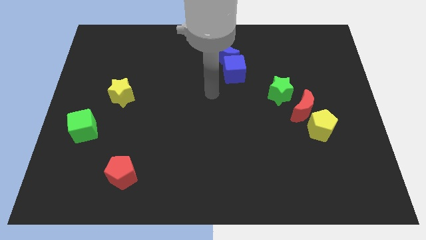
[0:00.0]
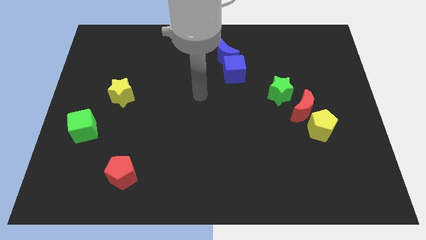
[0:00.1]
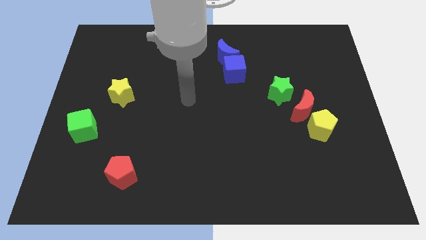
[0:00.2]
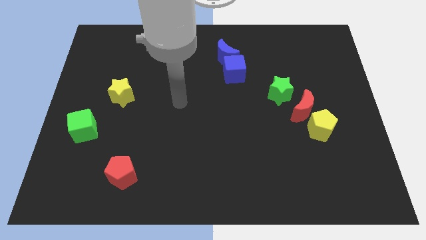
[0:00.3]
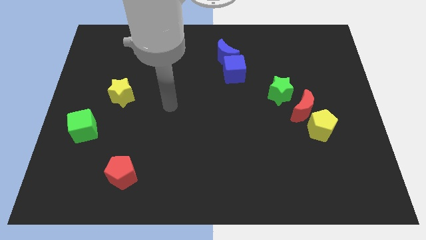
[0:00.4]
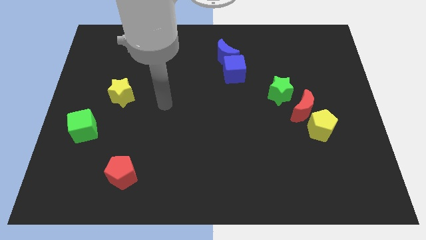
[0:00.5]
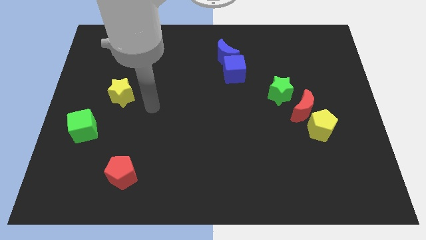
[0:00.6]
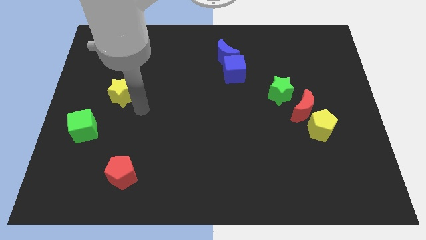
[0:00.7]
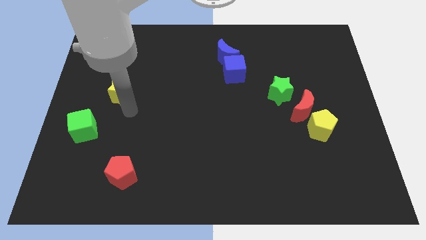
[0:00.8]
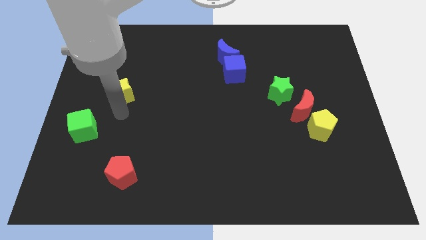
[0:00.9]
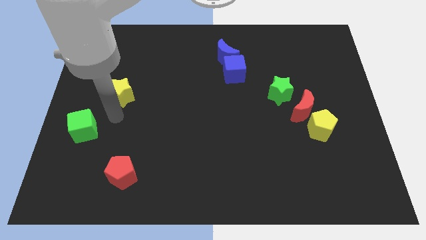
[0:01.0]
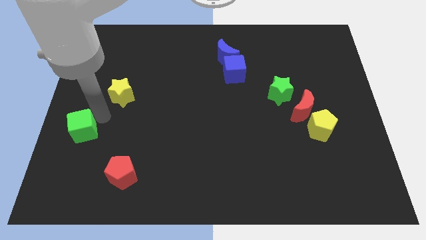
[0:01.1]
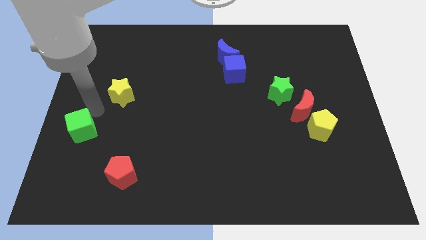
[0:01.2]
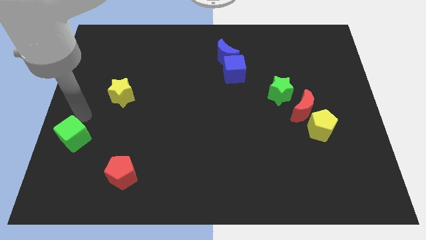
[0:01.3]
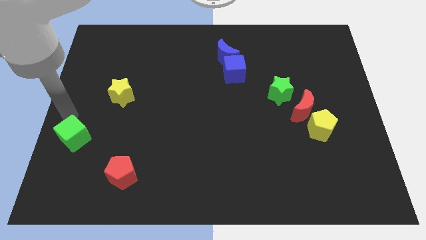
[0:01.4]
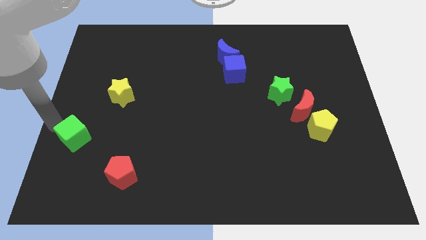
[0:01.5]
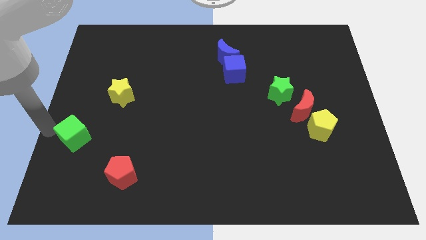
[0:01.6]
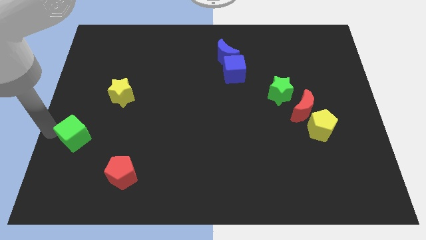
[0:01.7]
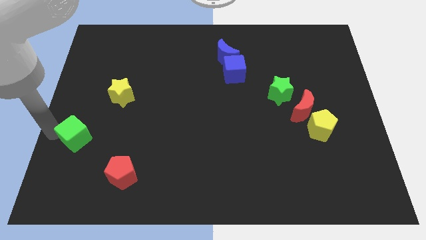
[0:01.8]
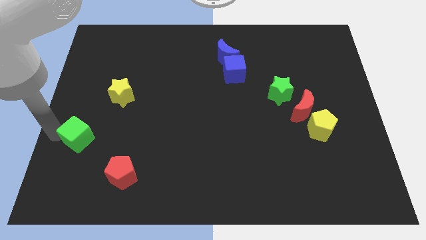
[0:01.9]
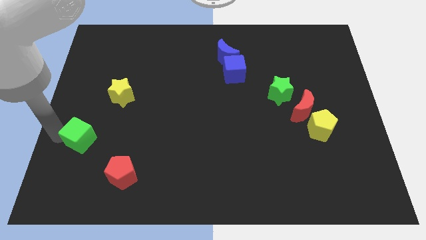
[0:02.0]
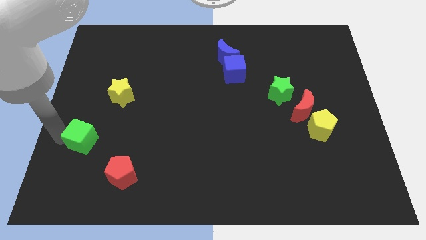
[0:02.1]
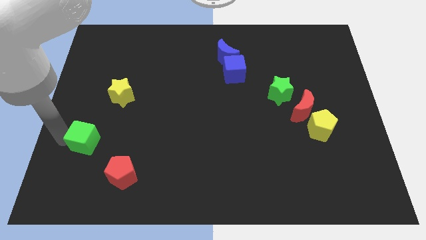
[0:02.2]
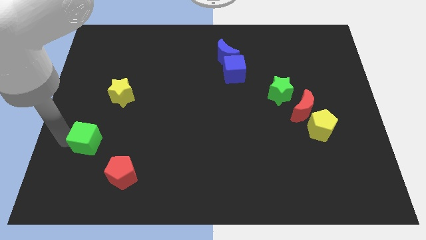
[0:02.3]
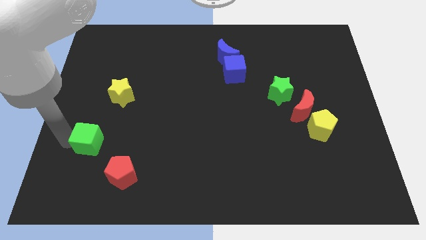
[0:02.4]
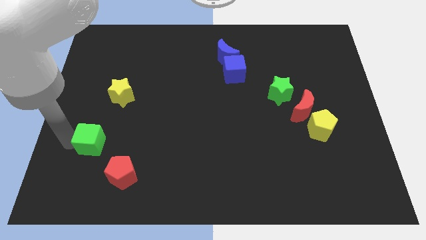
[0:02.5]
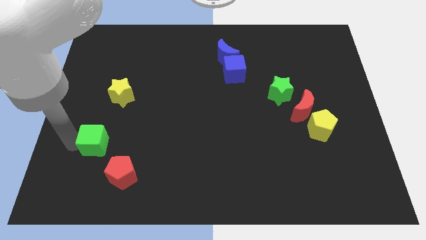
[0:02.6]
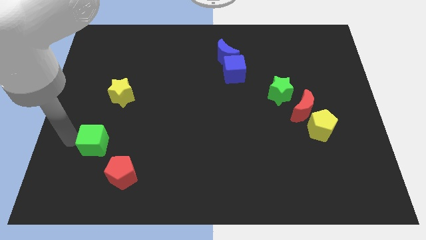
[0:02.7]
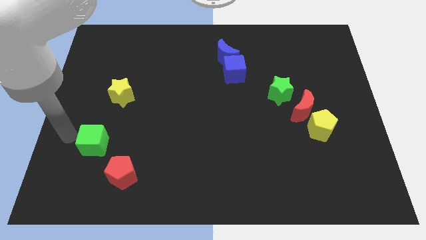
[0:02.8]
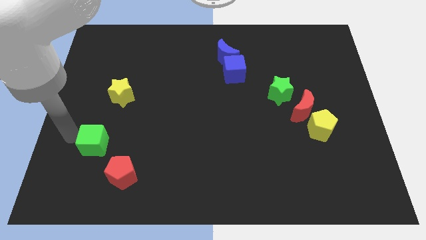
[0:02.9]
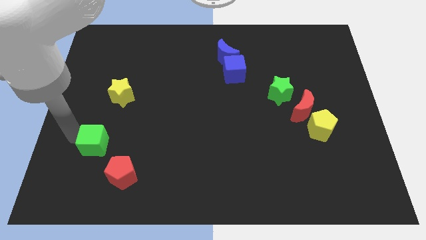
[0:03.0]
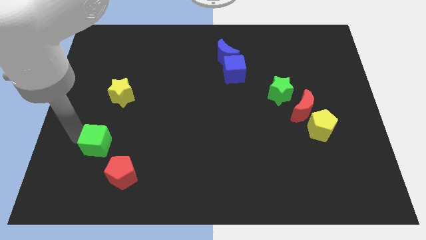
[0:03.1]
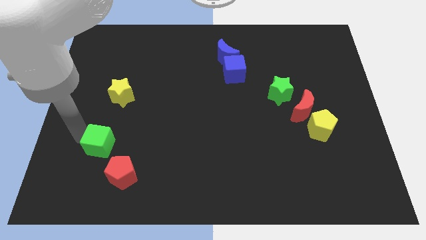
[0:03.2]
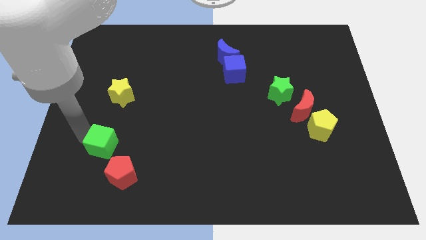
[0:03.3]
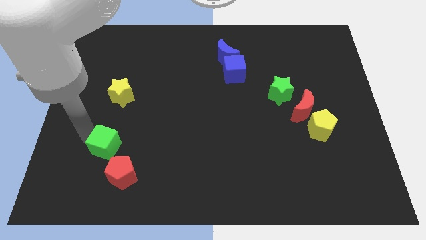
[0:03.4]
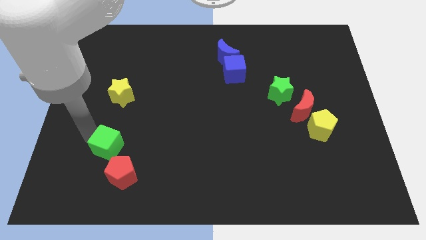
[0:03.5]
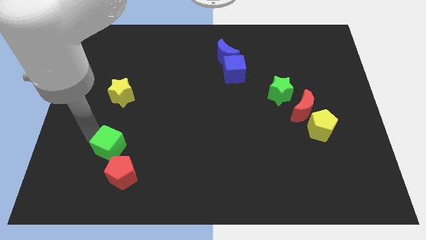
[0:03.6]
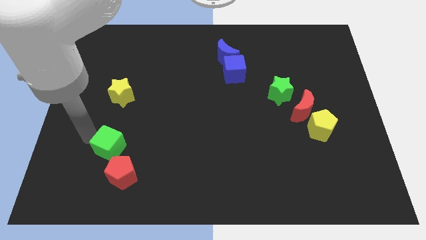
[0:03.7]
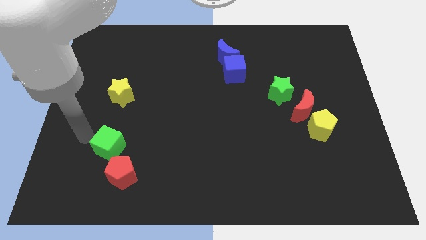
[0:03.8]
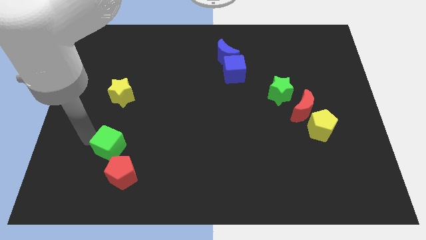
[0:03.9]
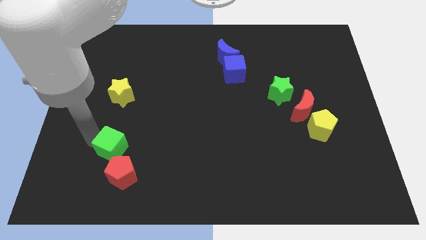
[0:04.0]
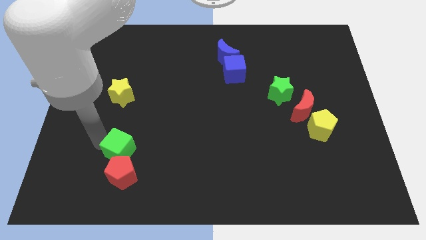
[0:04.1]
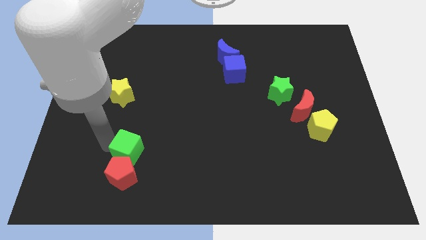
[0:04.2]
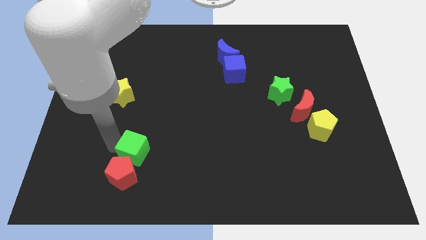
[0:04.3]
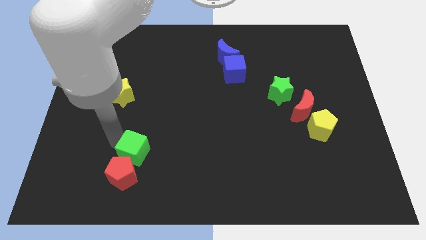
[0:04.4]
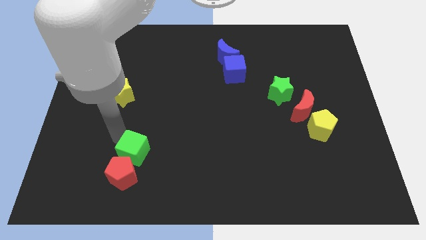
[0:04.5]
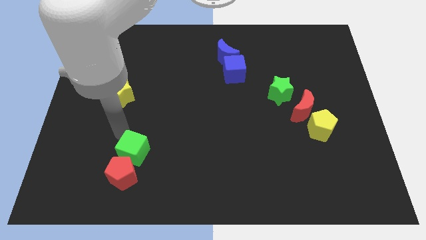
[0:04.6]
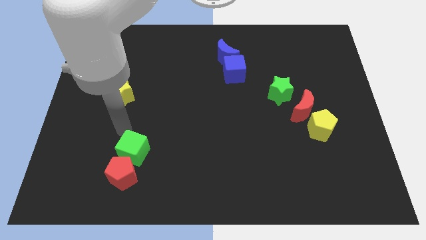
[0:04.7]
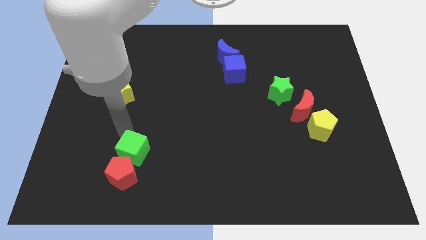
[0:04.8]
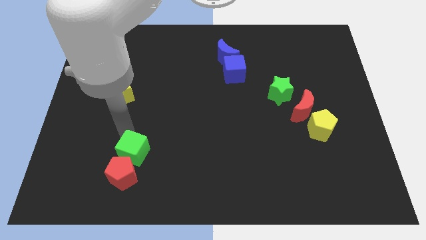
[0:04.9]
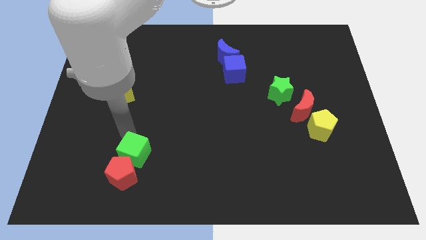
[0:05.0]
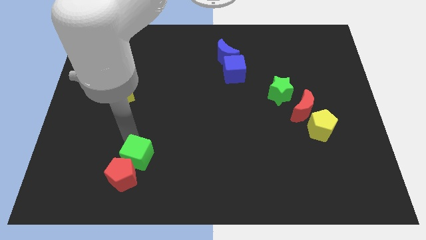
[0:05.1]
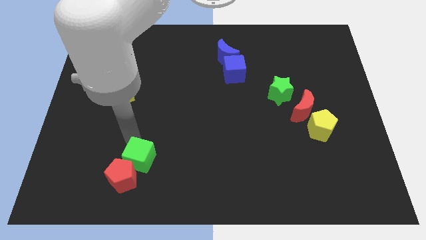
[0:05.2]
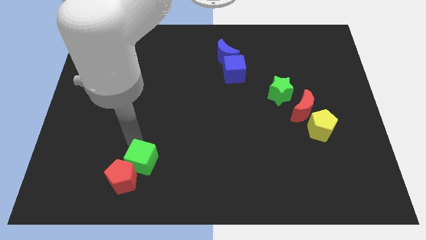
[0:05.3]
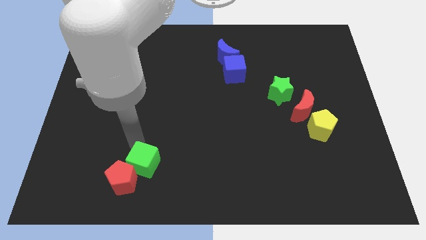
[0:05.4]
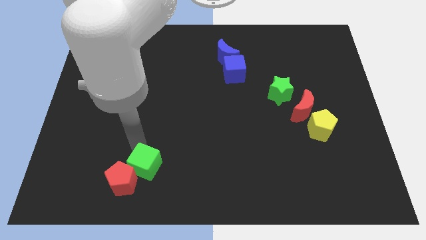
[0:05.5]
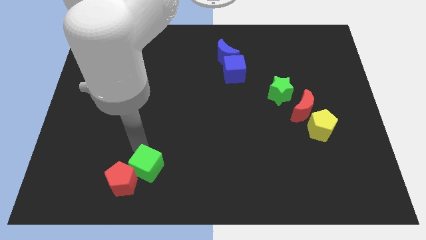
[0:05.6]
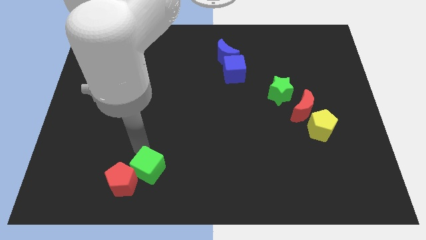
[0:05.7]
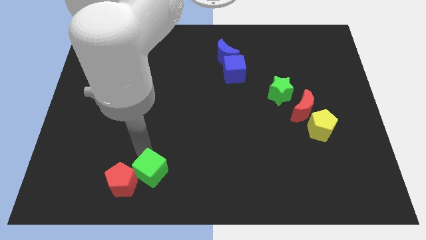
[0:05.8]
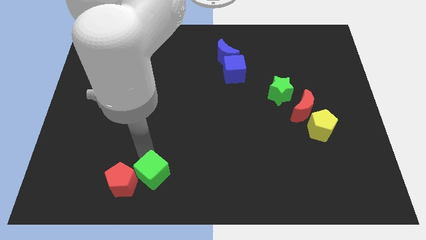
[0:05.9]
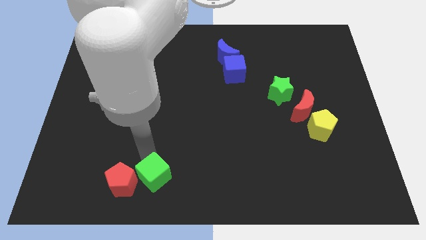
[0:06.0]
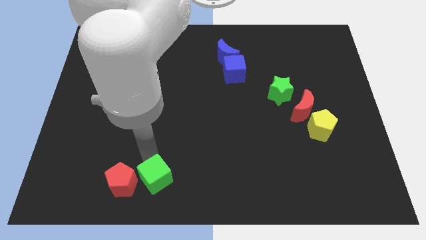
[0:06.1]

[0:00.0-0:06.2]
put the green cube to the bottom side

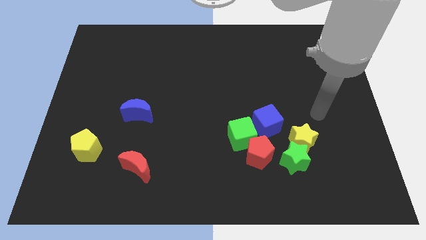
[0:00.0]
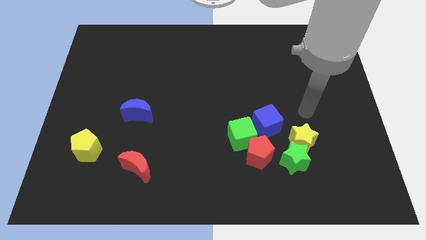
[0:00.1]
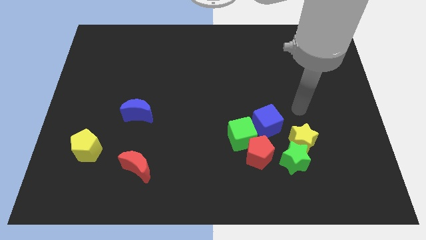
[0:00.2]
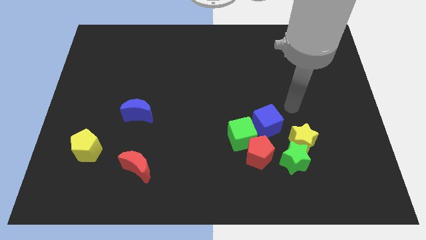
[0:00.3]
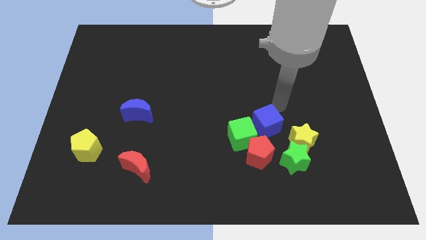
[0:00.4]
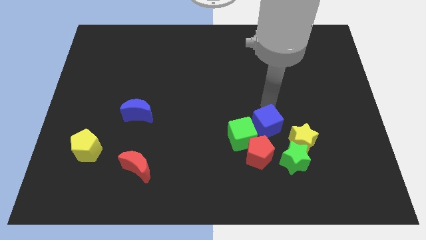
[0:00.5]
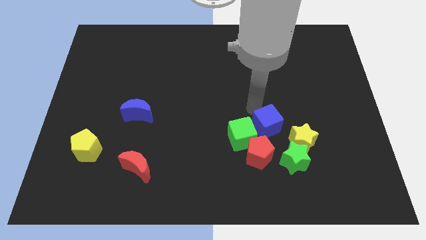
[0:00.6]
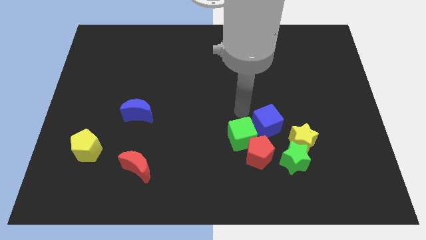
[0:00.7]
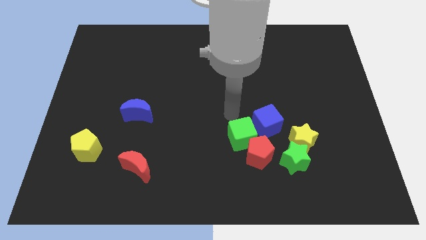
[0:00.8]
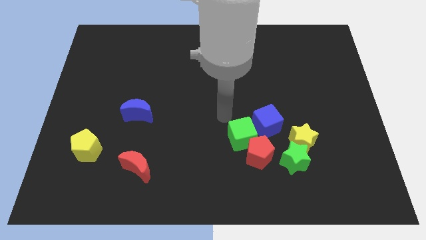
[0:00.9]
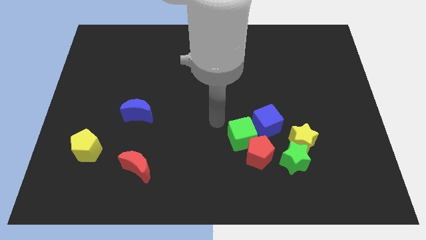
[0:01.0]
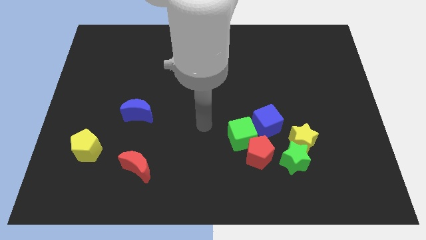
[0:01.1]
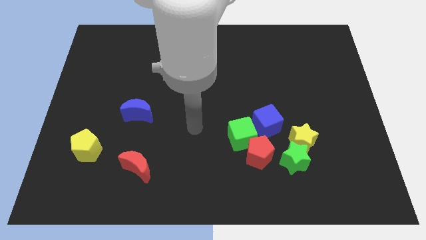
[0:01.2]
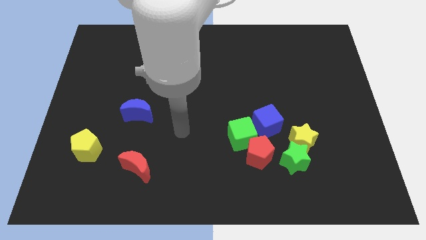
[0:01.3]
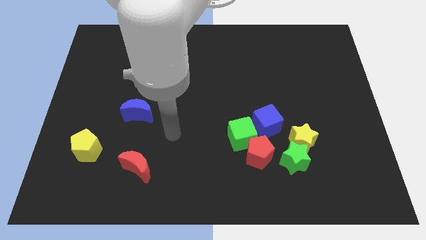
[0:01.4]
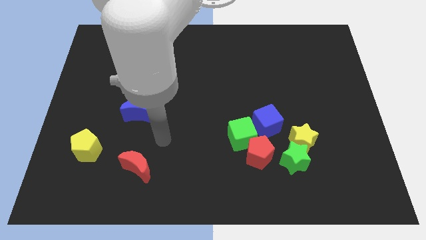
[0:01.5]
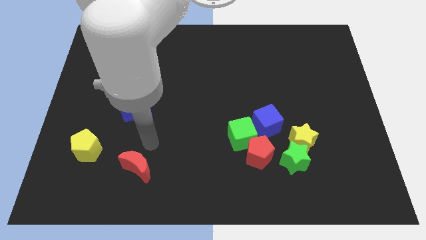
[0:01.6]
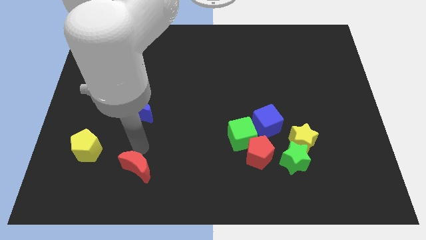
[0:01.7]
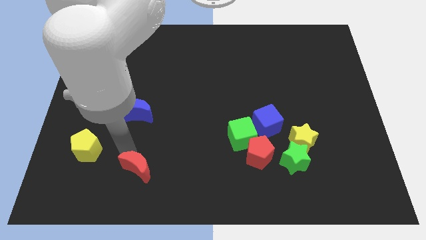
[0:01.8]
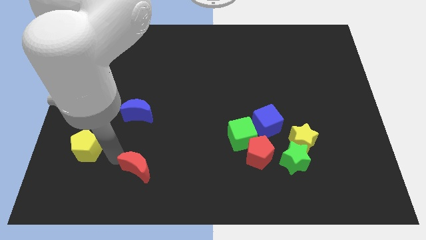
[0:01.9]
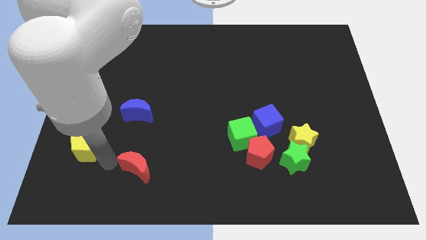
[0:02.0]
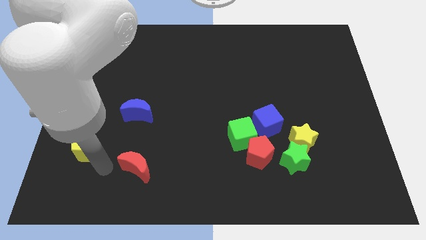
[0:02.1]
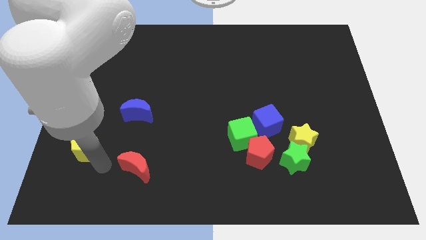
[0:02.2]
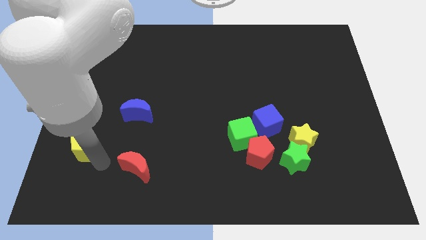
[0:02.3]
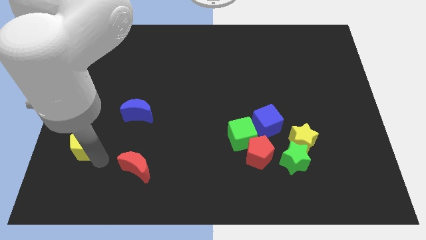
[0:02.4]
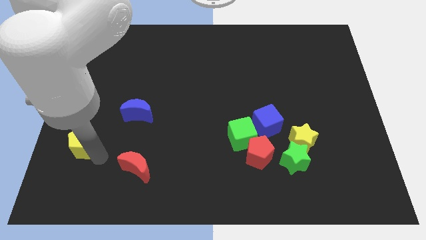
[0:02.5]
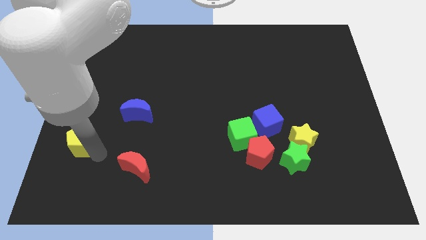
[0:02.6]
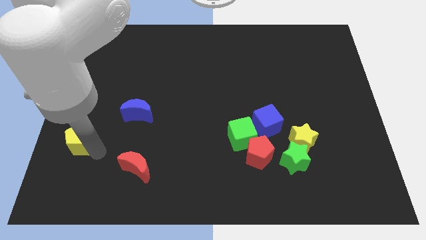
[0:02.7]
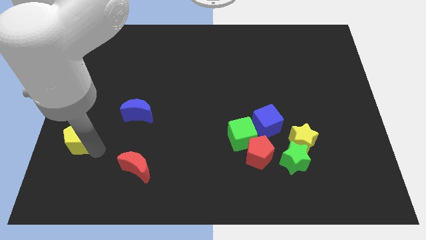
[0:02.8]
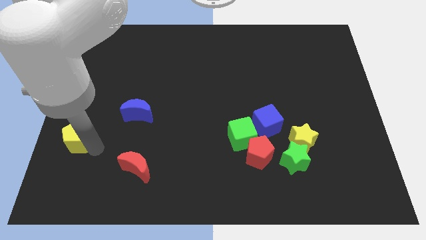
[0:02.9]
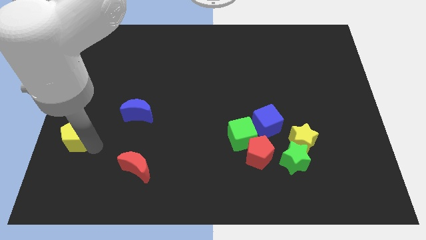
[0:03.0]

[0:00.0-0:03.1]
put the yellow pentagon to the center left
